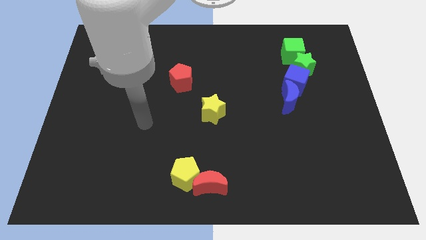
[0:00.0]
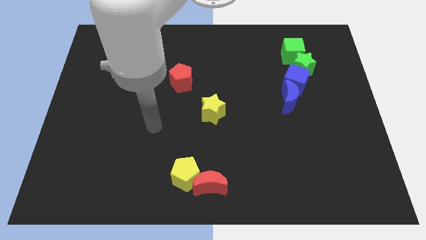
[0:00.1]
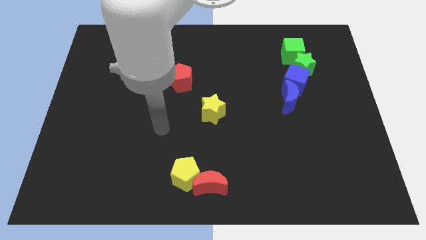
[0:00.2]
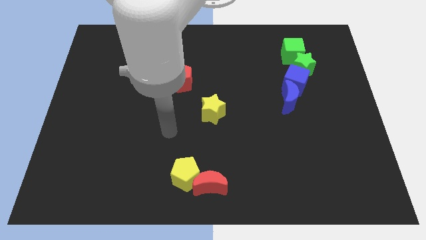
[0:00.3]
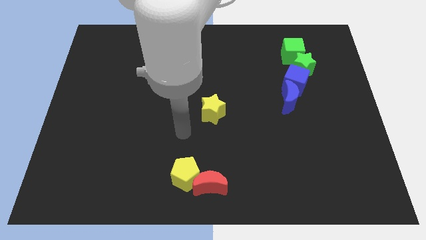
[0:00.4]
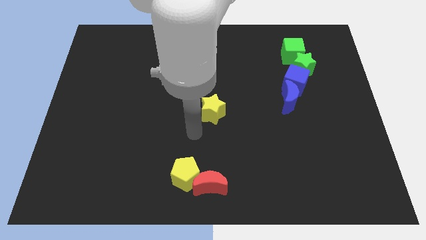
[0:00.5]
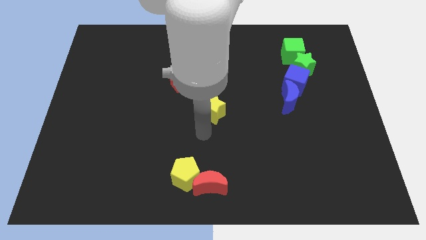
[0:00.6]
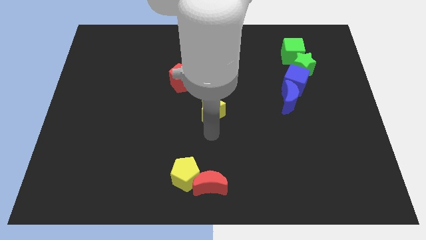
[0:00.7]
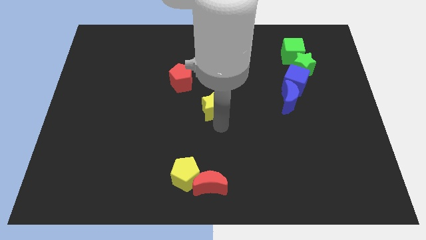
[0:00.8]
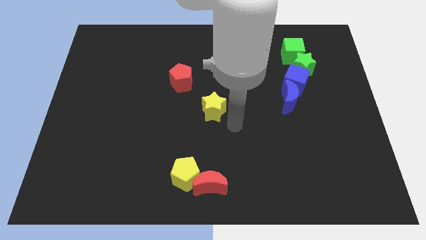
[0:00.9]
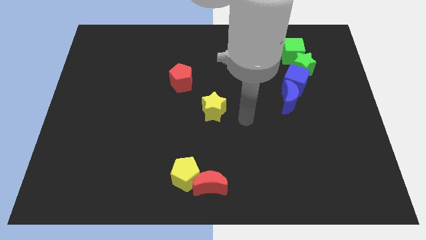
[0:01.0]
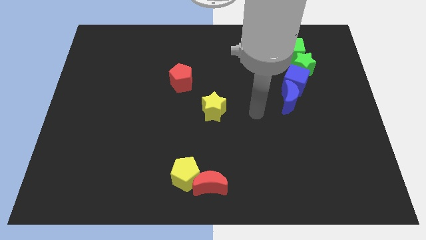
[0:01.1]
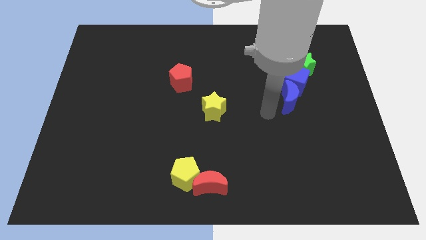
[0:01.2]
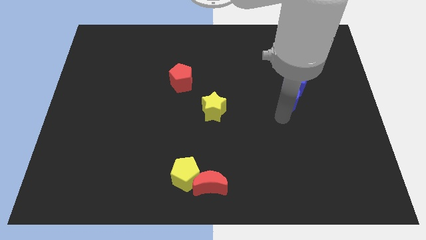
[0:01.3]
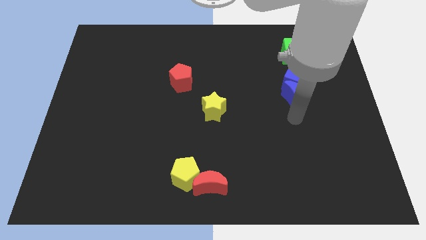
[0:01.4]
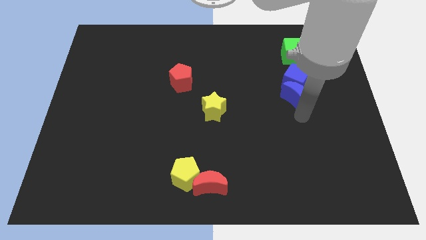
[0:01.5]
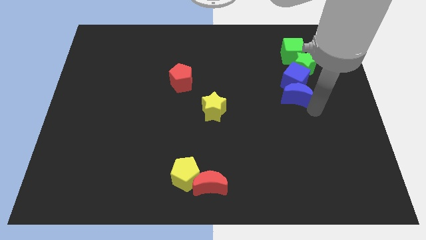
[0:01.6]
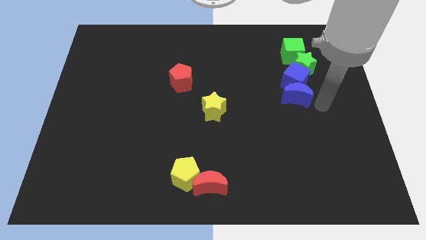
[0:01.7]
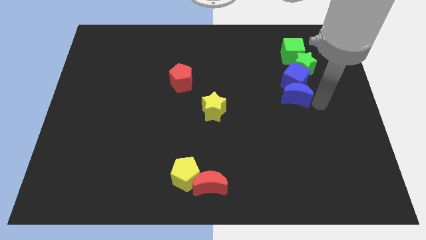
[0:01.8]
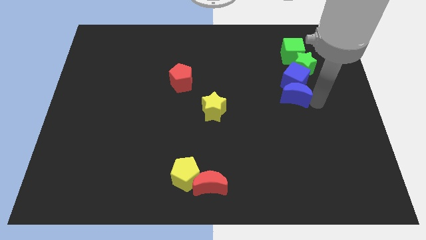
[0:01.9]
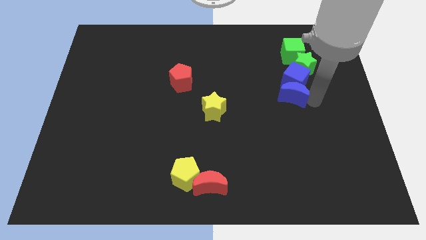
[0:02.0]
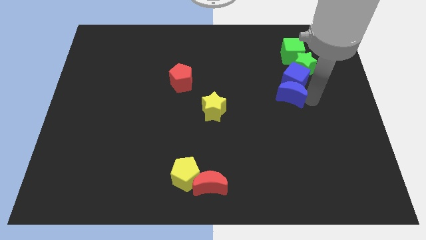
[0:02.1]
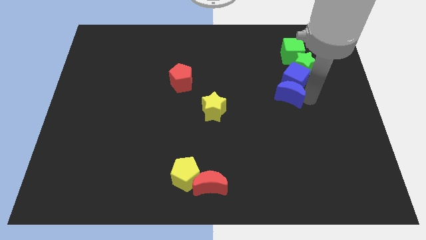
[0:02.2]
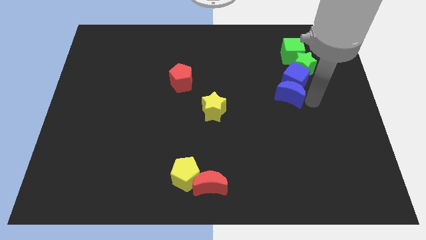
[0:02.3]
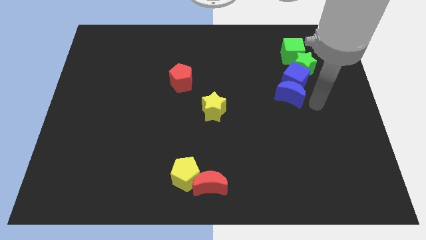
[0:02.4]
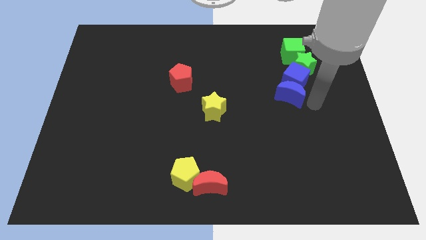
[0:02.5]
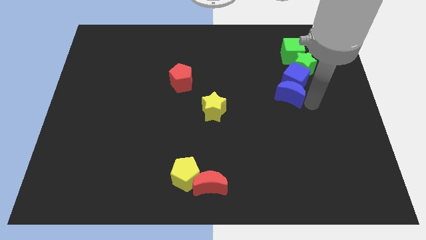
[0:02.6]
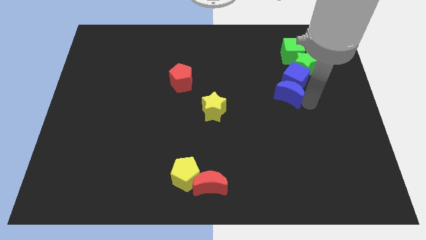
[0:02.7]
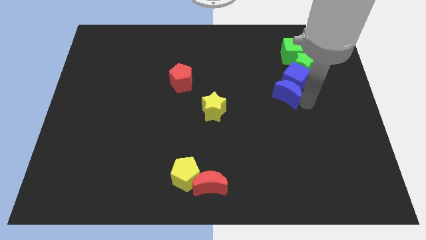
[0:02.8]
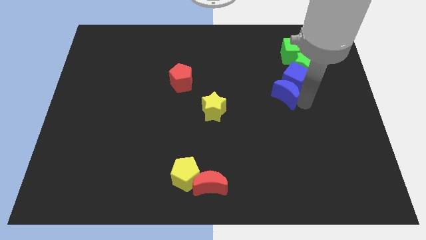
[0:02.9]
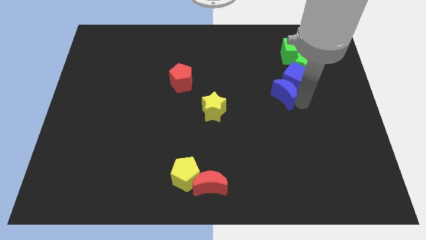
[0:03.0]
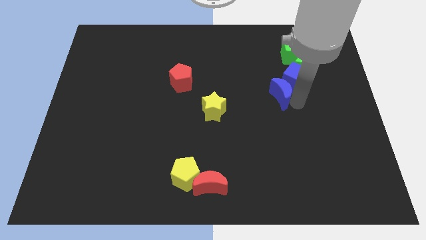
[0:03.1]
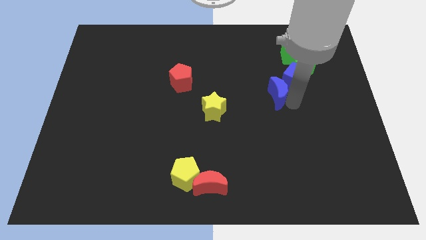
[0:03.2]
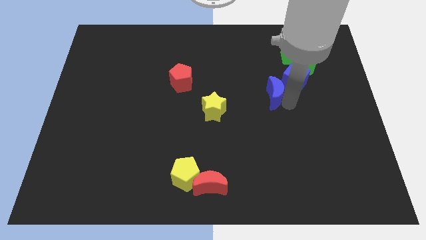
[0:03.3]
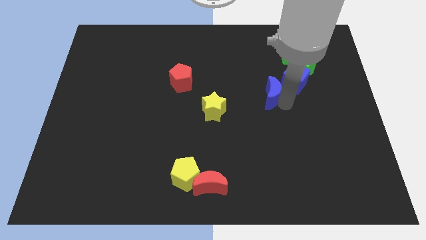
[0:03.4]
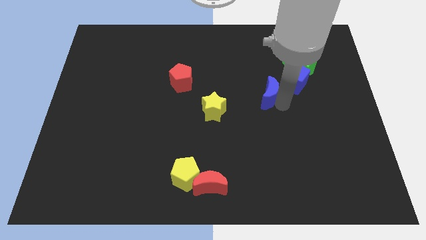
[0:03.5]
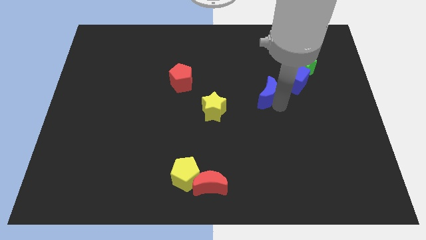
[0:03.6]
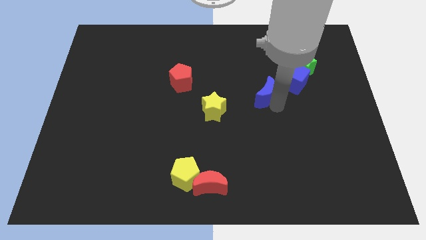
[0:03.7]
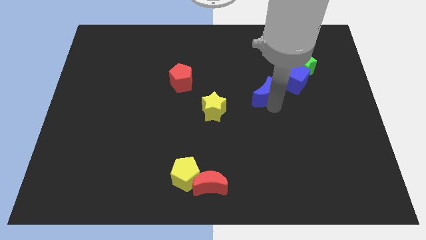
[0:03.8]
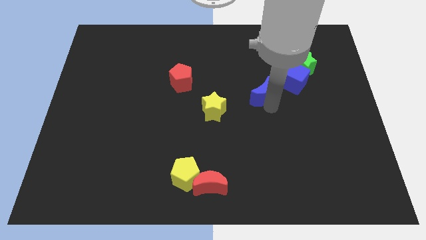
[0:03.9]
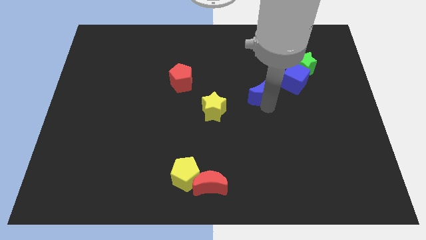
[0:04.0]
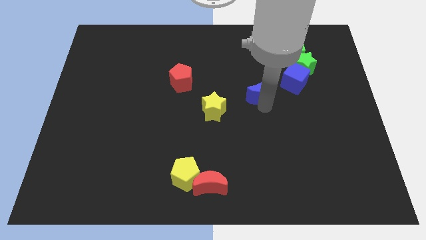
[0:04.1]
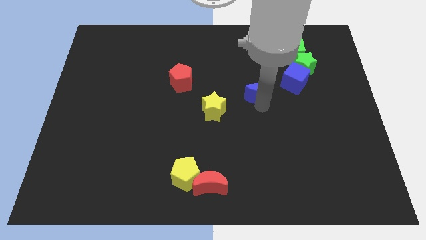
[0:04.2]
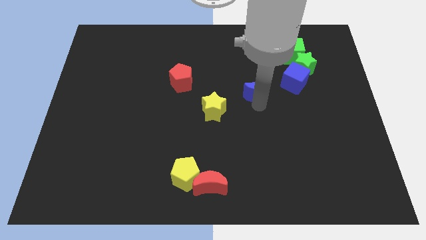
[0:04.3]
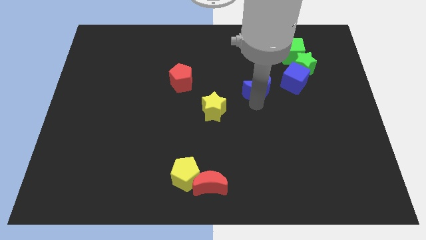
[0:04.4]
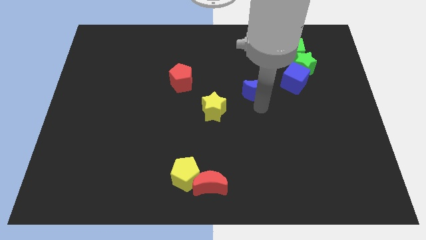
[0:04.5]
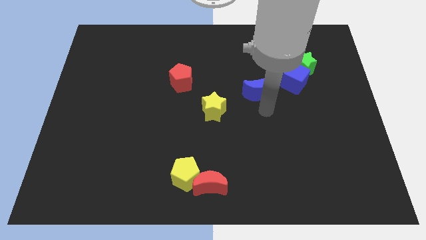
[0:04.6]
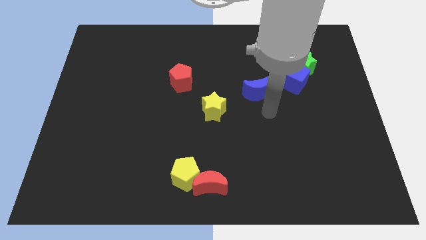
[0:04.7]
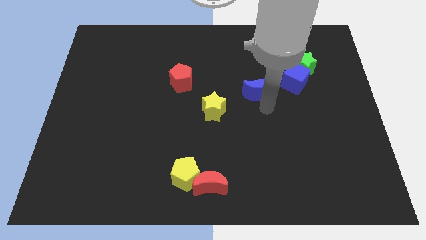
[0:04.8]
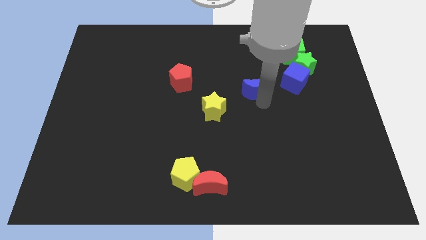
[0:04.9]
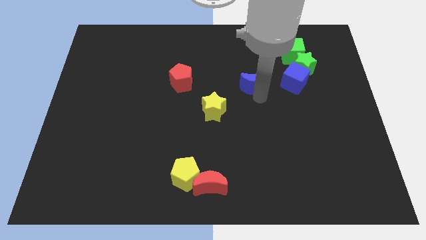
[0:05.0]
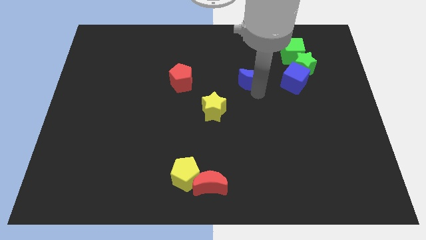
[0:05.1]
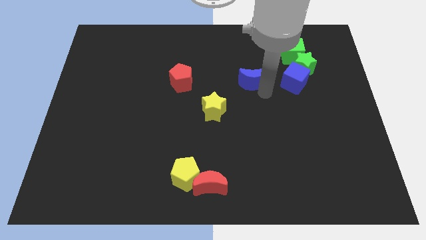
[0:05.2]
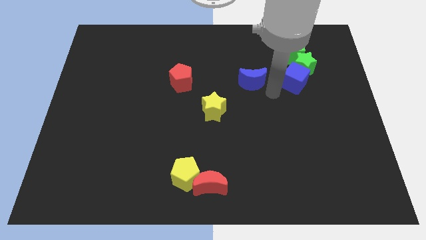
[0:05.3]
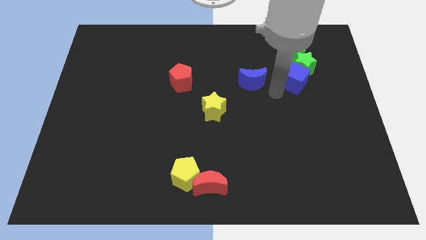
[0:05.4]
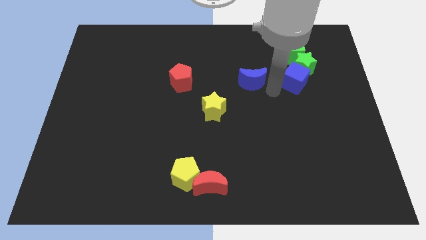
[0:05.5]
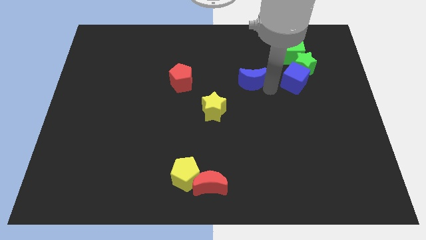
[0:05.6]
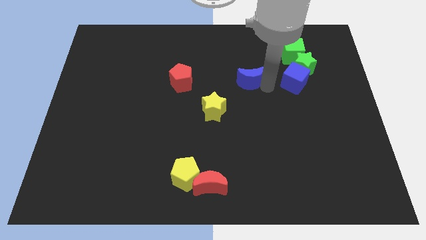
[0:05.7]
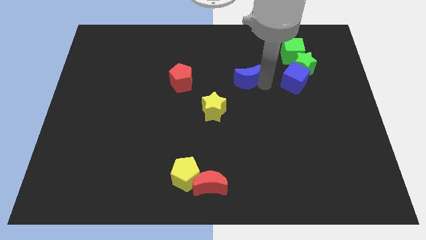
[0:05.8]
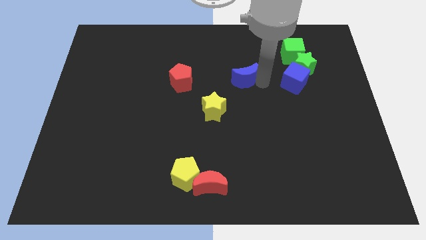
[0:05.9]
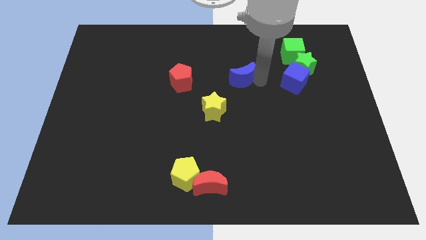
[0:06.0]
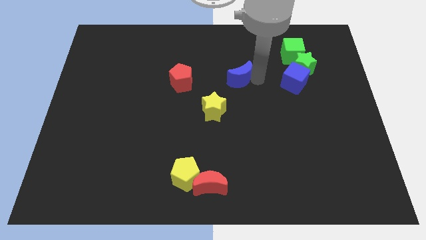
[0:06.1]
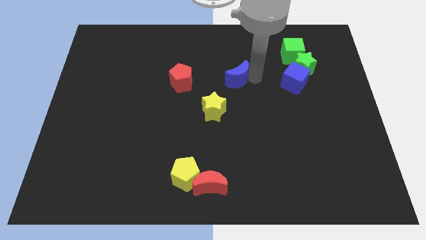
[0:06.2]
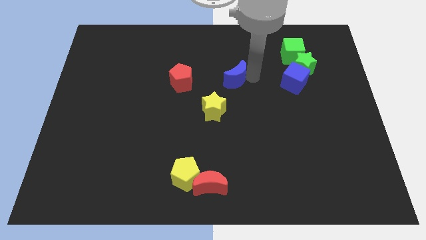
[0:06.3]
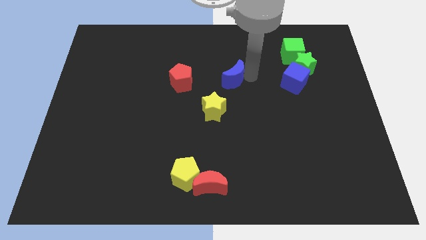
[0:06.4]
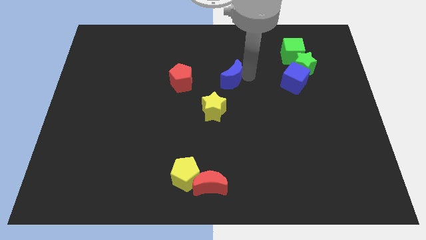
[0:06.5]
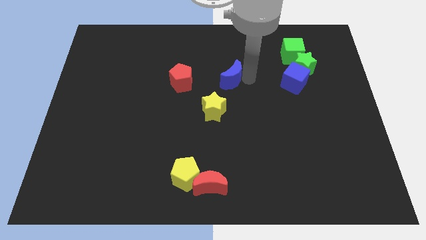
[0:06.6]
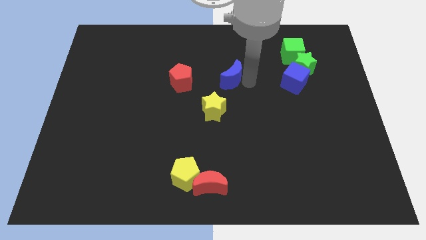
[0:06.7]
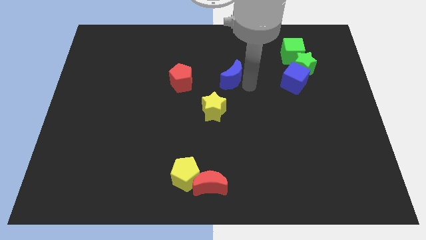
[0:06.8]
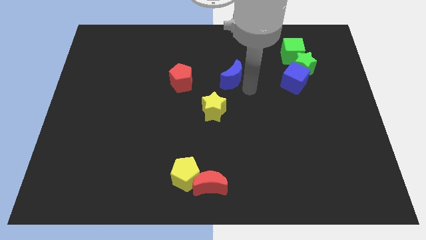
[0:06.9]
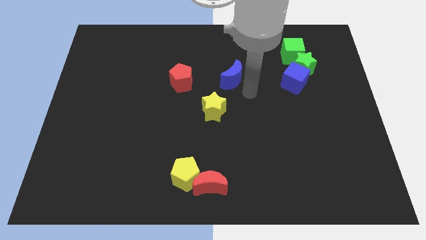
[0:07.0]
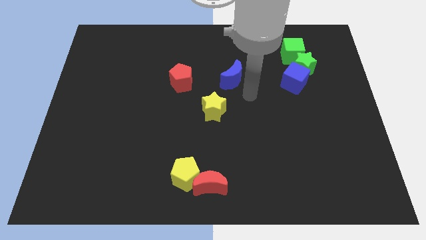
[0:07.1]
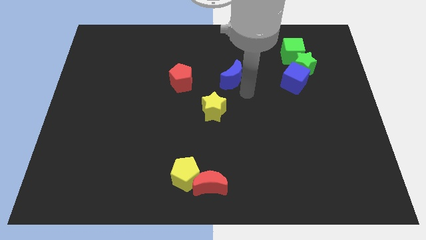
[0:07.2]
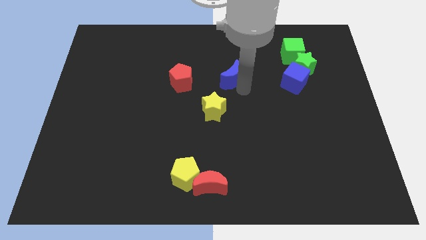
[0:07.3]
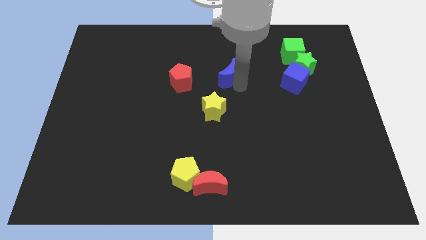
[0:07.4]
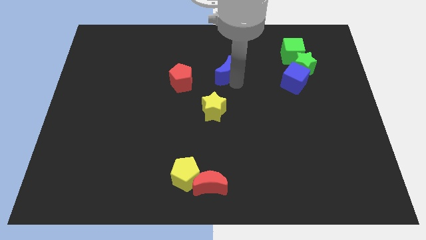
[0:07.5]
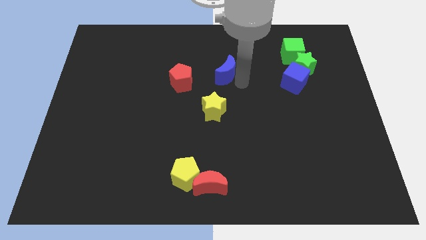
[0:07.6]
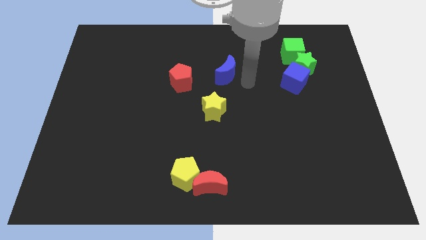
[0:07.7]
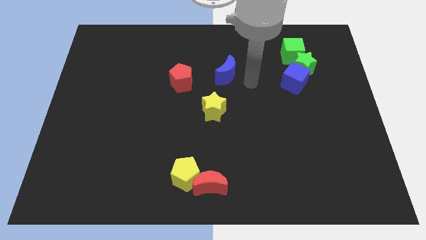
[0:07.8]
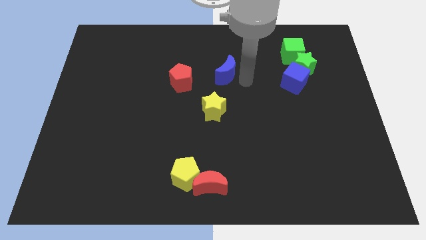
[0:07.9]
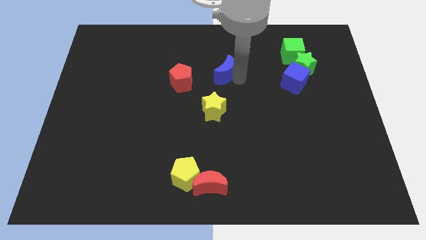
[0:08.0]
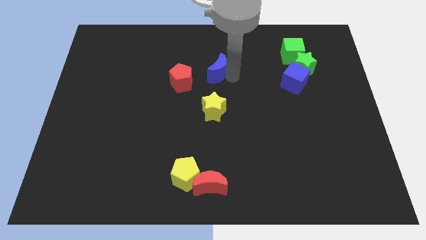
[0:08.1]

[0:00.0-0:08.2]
push the blue moon to the top right side of the red pentagon
